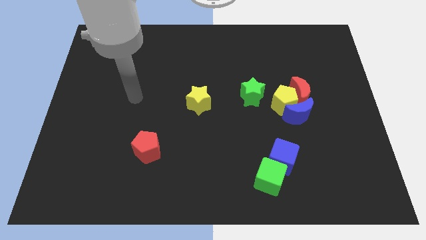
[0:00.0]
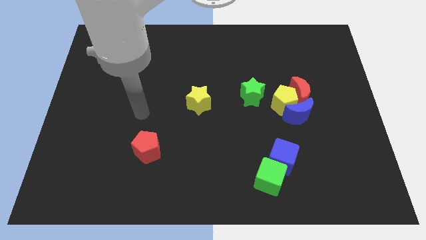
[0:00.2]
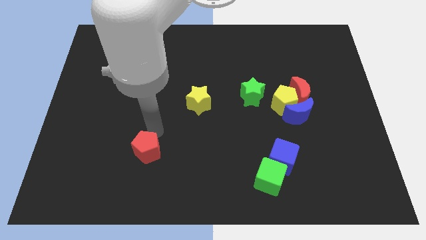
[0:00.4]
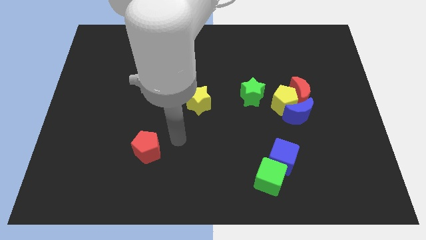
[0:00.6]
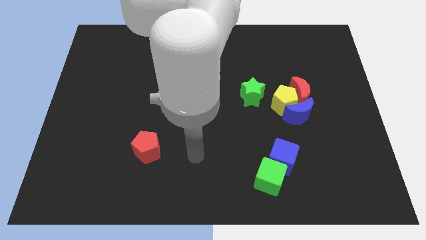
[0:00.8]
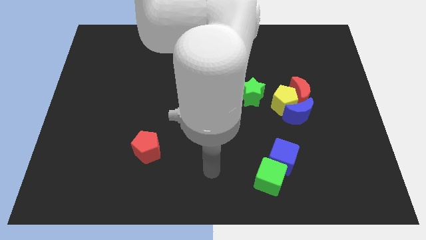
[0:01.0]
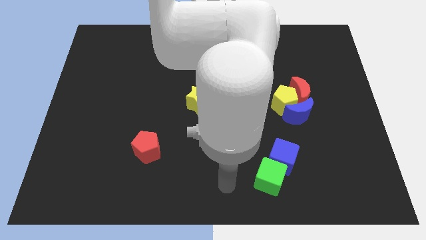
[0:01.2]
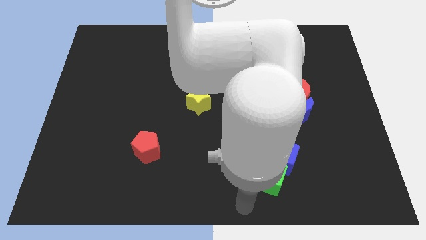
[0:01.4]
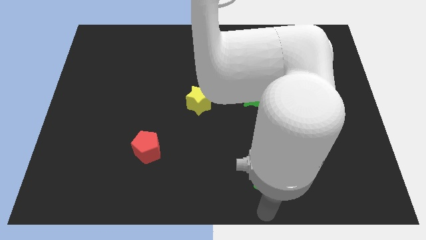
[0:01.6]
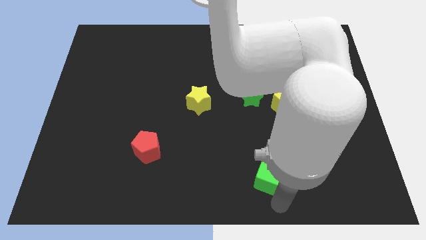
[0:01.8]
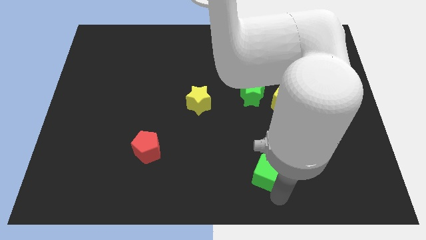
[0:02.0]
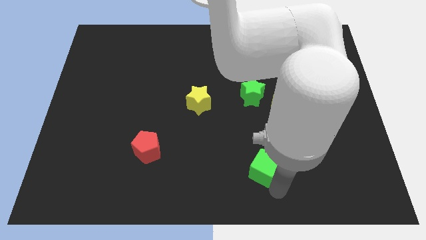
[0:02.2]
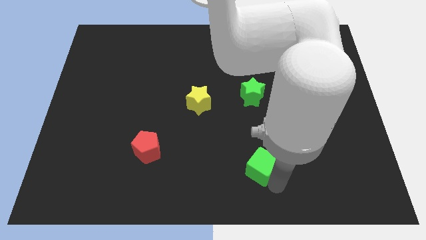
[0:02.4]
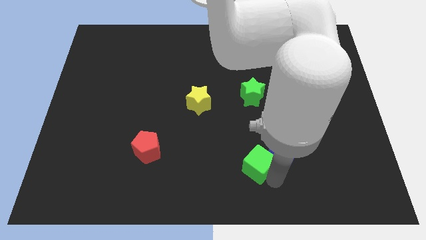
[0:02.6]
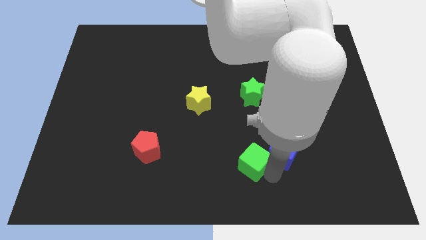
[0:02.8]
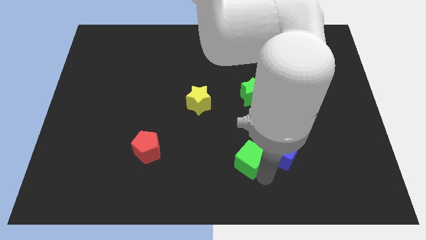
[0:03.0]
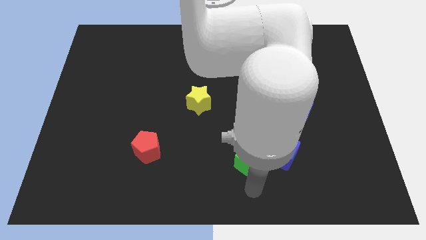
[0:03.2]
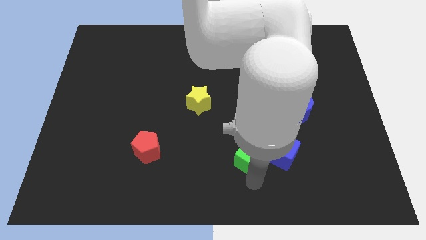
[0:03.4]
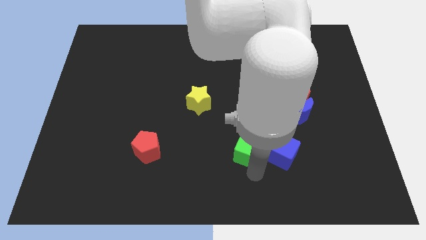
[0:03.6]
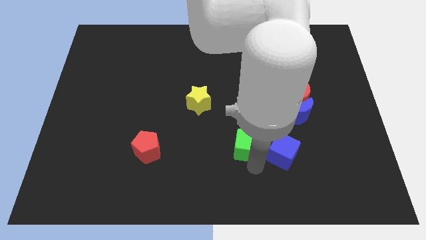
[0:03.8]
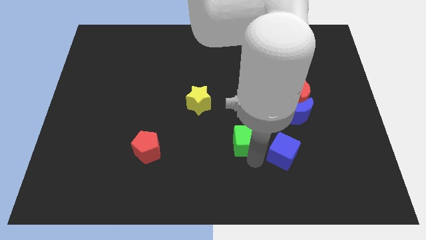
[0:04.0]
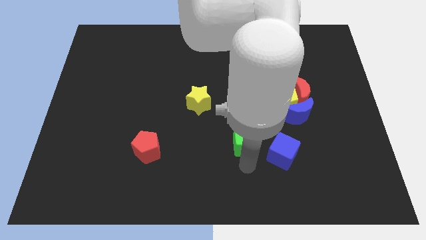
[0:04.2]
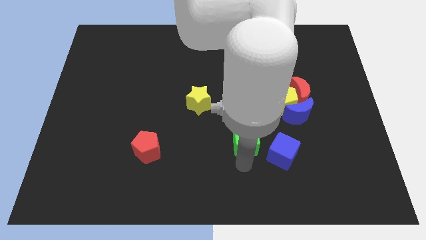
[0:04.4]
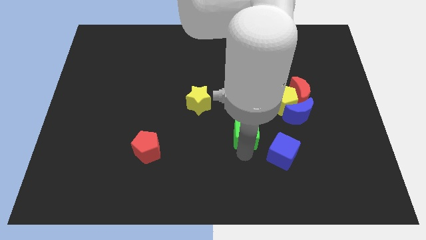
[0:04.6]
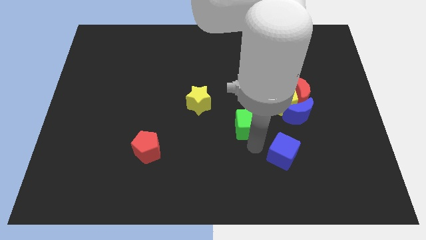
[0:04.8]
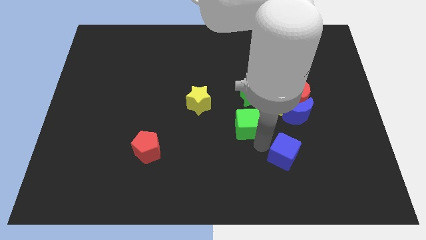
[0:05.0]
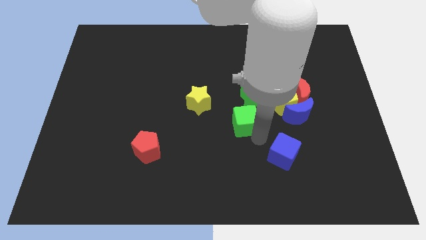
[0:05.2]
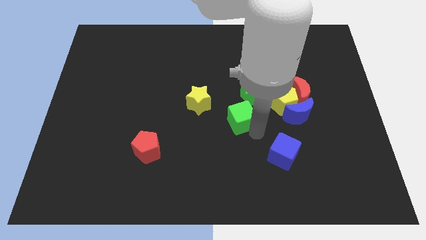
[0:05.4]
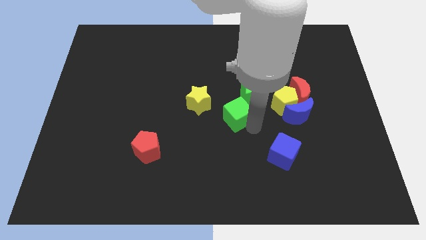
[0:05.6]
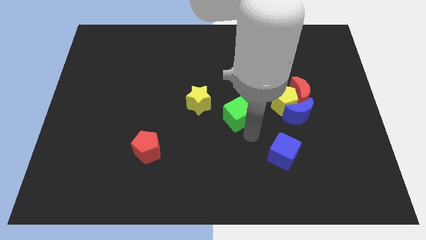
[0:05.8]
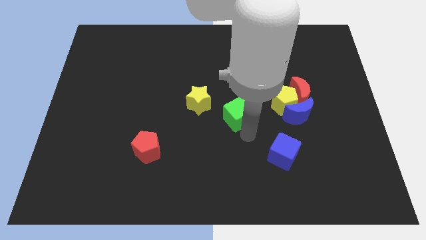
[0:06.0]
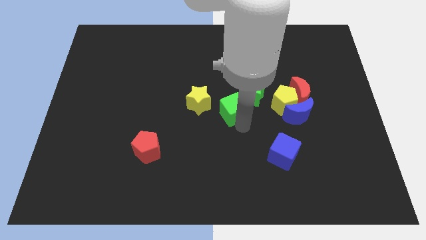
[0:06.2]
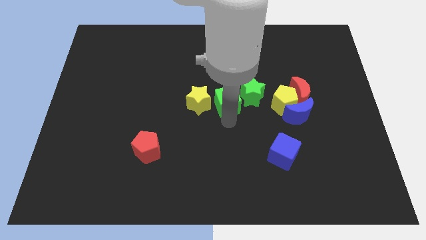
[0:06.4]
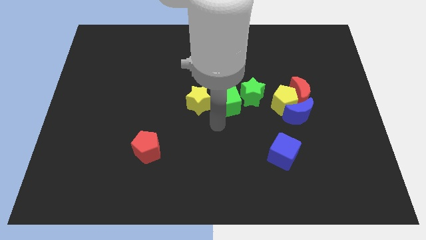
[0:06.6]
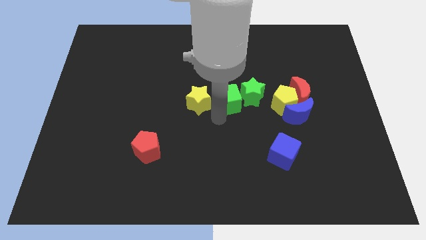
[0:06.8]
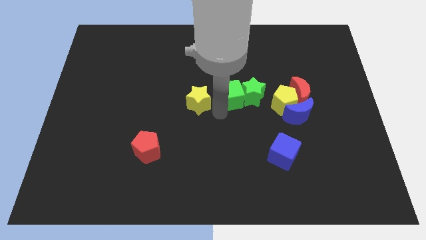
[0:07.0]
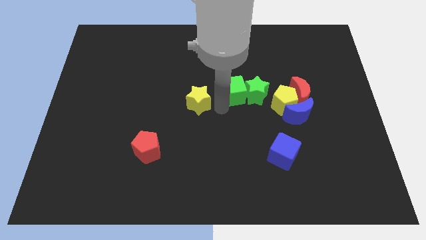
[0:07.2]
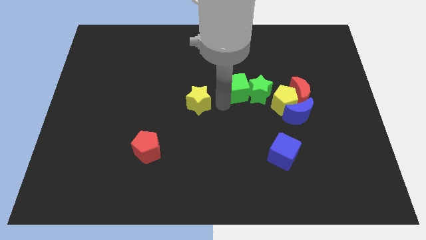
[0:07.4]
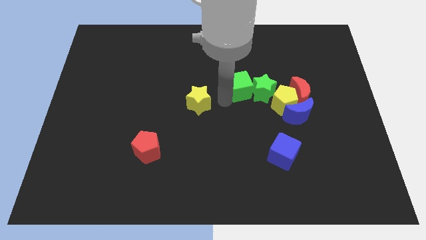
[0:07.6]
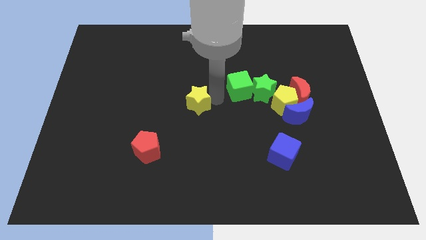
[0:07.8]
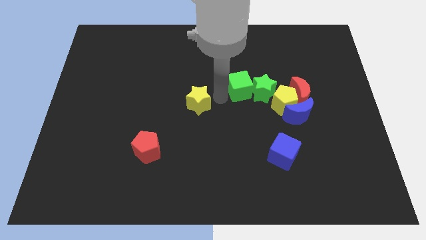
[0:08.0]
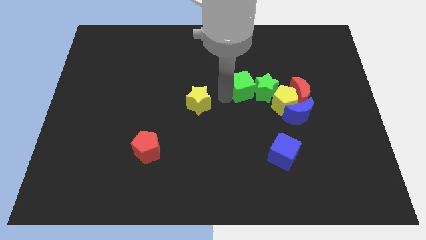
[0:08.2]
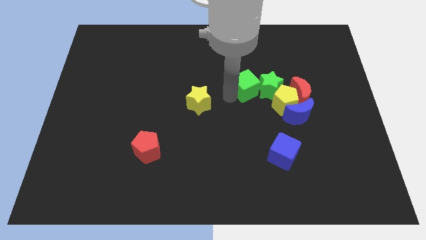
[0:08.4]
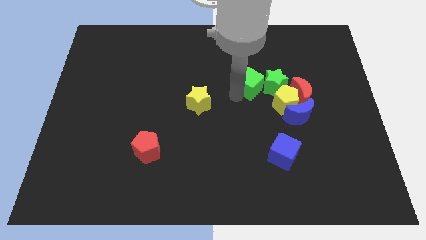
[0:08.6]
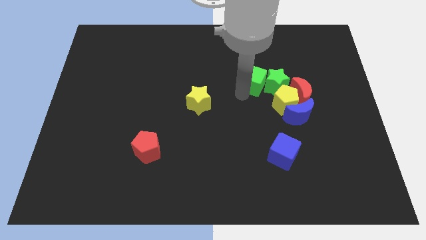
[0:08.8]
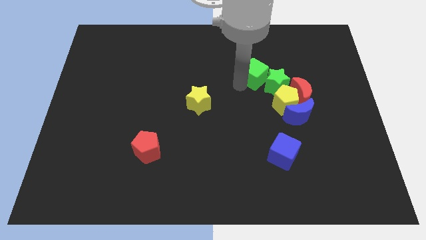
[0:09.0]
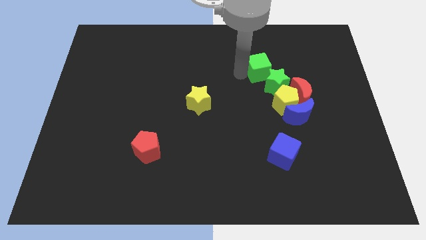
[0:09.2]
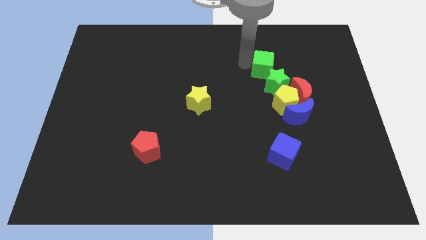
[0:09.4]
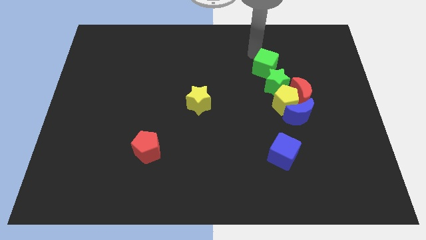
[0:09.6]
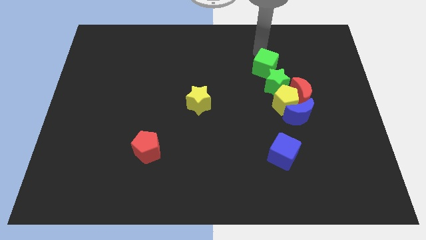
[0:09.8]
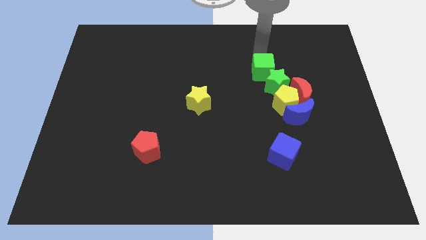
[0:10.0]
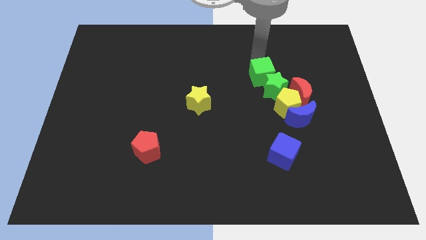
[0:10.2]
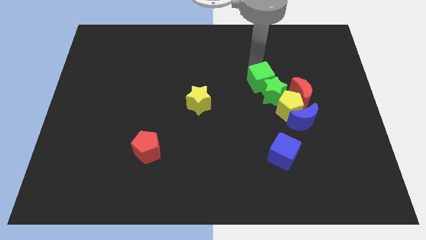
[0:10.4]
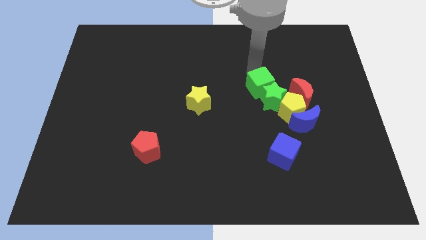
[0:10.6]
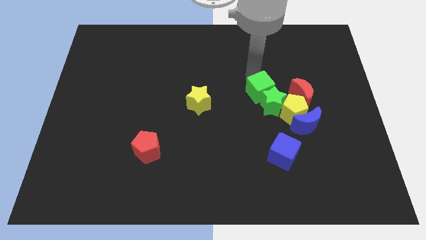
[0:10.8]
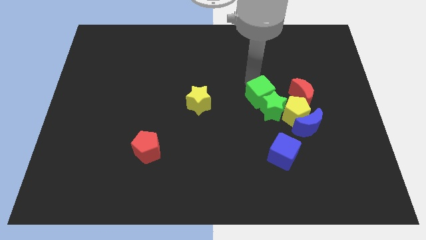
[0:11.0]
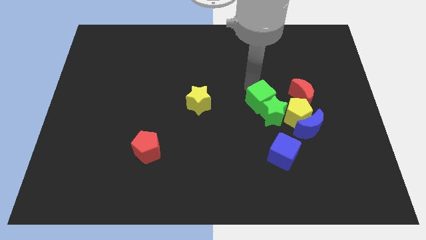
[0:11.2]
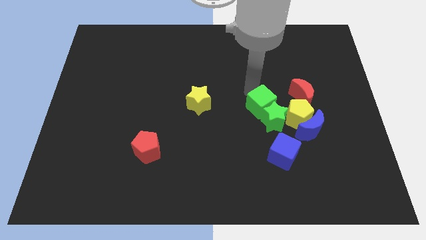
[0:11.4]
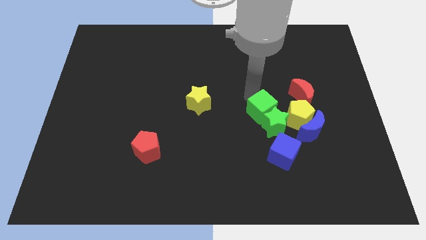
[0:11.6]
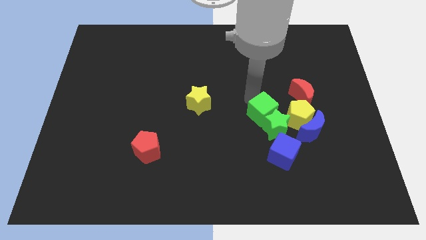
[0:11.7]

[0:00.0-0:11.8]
push the green cube to the top left side of the blue moon
